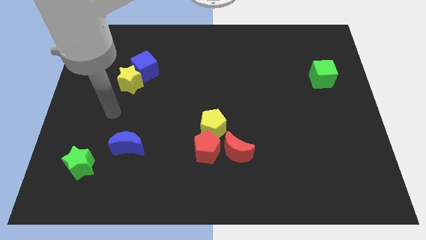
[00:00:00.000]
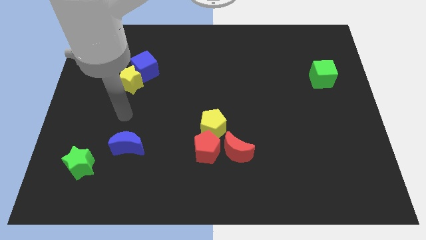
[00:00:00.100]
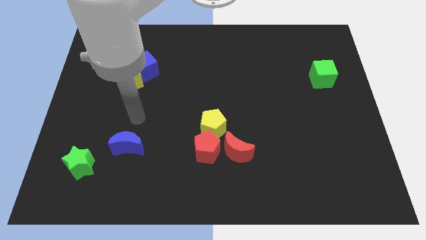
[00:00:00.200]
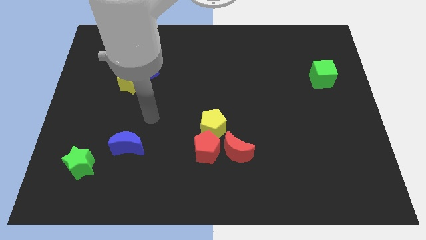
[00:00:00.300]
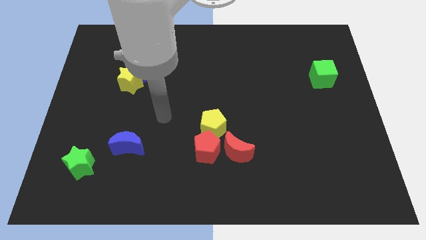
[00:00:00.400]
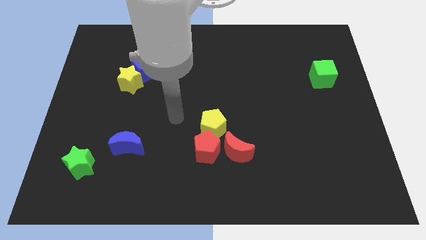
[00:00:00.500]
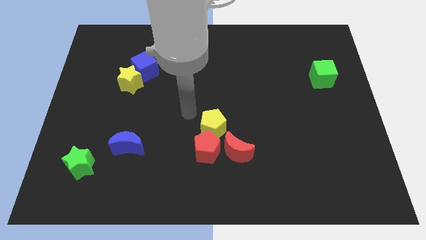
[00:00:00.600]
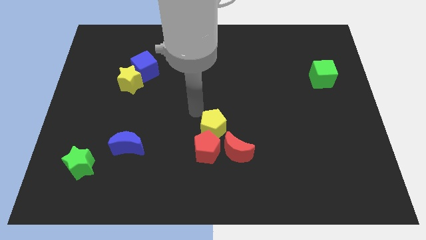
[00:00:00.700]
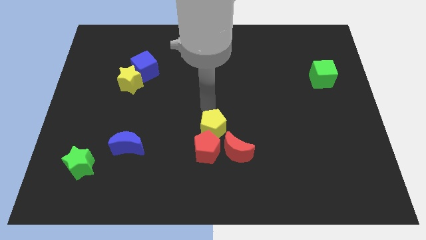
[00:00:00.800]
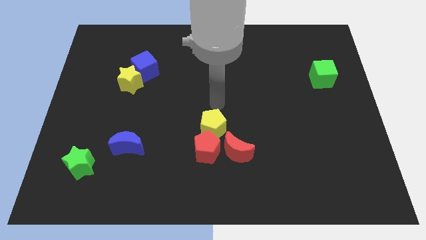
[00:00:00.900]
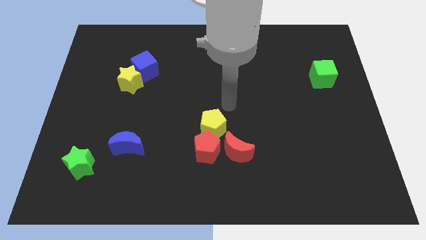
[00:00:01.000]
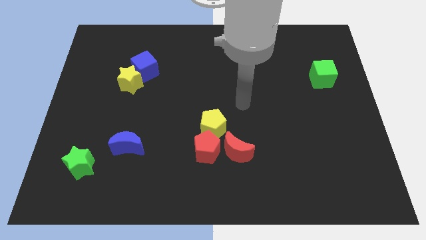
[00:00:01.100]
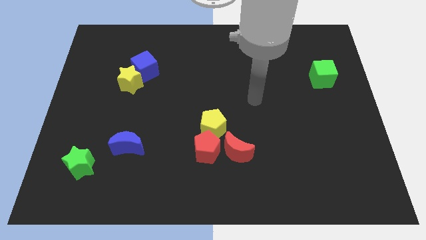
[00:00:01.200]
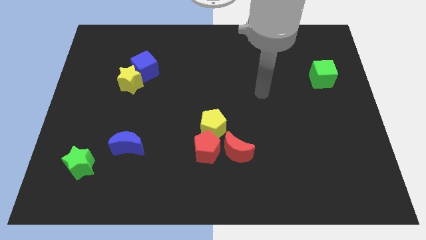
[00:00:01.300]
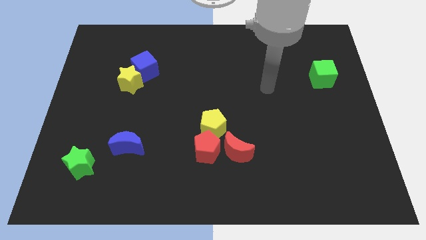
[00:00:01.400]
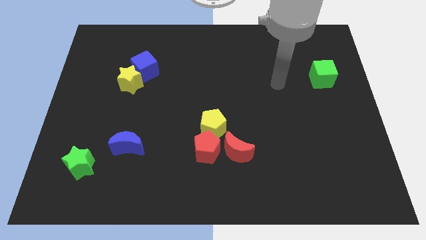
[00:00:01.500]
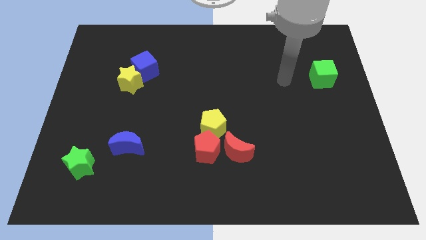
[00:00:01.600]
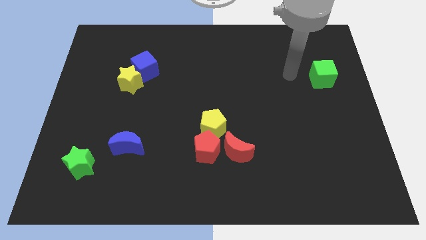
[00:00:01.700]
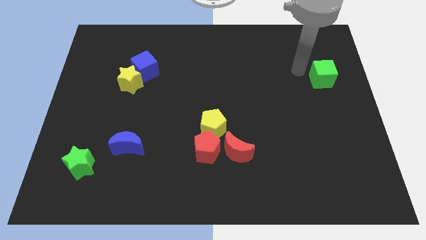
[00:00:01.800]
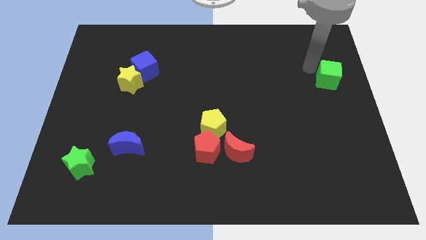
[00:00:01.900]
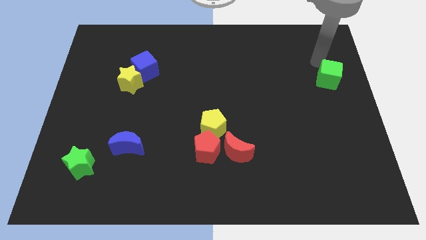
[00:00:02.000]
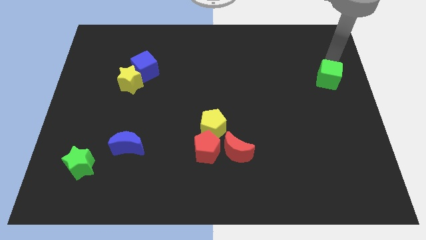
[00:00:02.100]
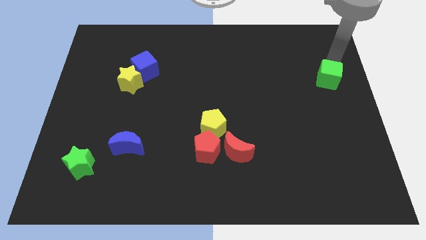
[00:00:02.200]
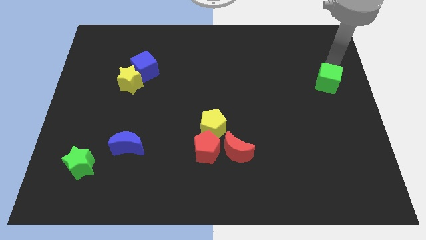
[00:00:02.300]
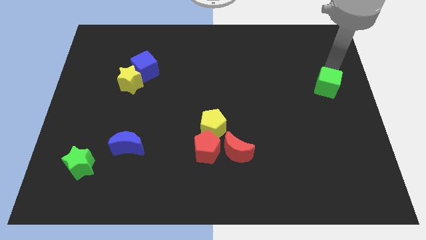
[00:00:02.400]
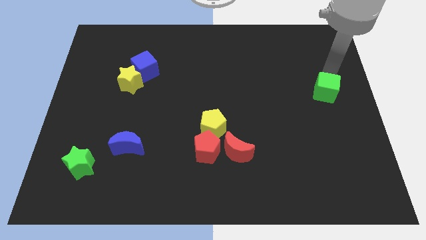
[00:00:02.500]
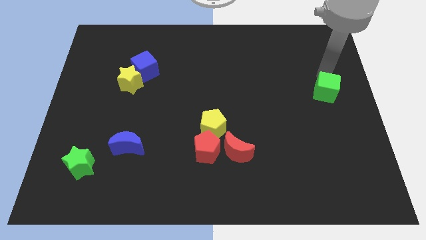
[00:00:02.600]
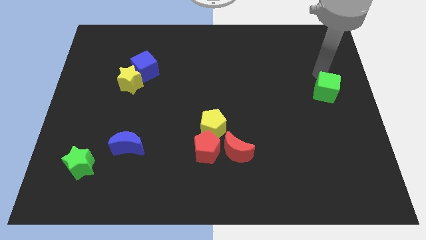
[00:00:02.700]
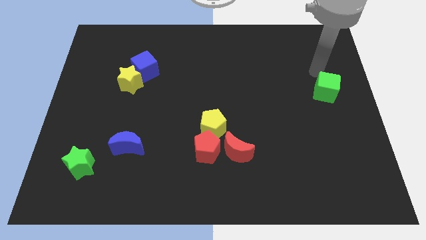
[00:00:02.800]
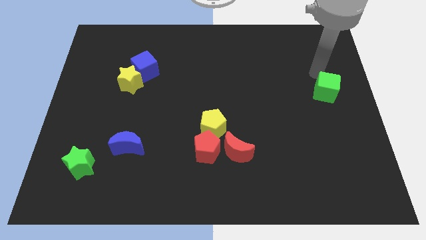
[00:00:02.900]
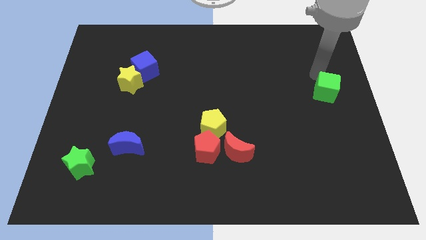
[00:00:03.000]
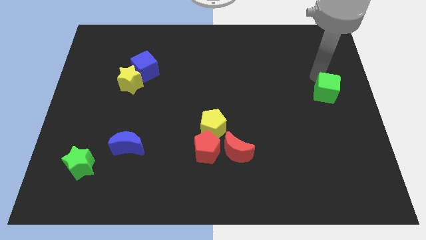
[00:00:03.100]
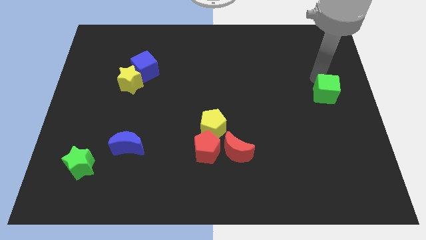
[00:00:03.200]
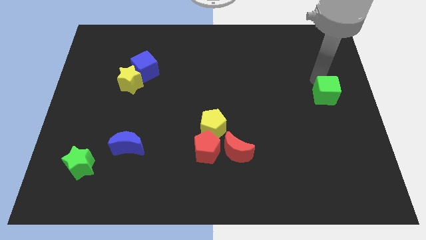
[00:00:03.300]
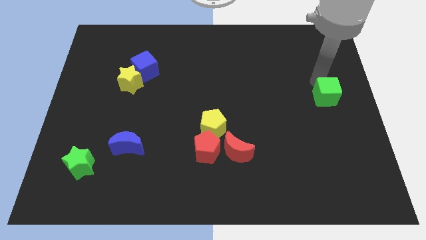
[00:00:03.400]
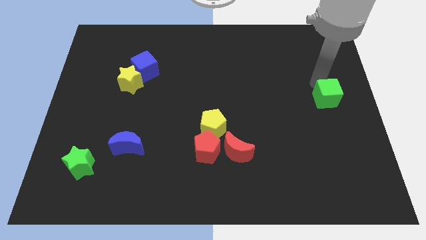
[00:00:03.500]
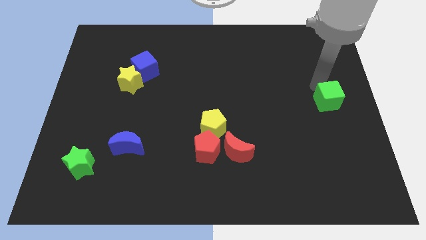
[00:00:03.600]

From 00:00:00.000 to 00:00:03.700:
slightly push the green cube down

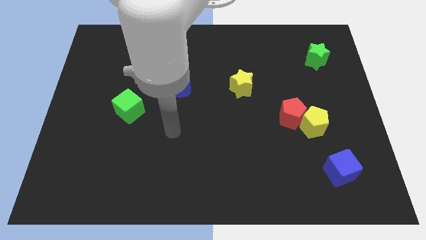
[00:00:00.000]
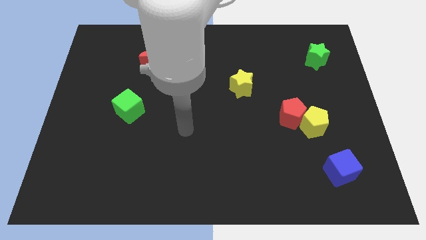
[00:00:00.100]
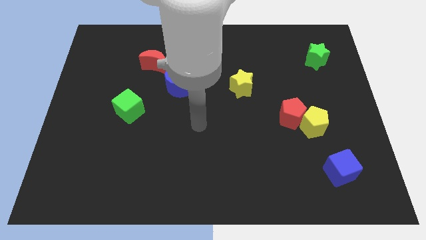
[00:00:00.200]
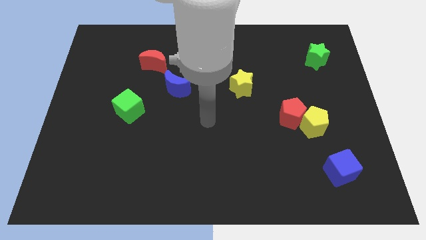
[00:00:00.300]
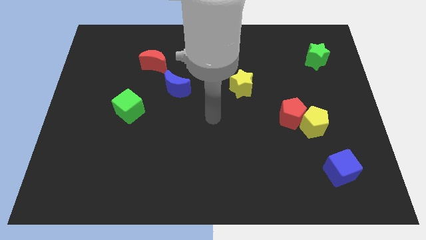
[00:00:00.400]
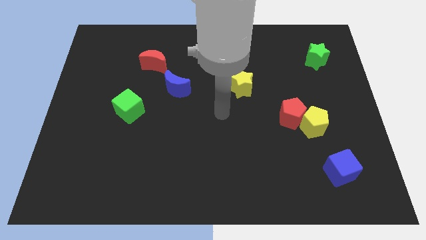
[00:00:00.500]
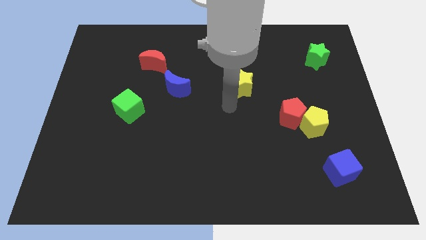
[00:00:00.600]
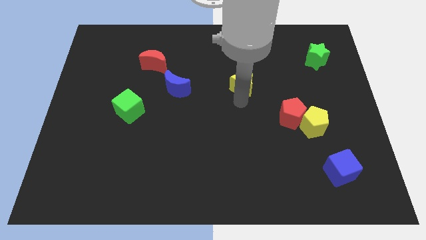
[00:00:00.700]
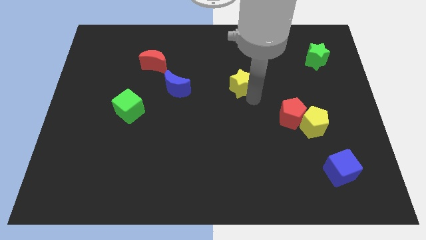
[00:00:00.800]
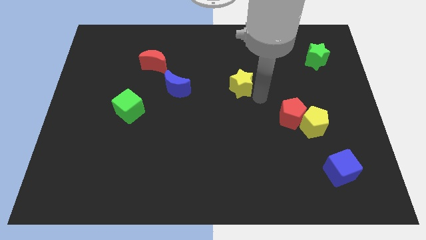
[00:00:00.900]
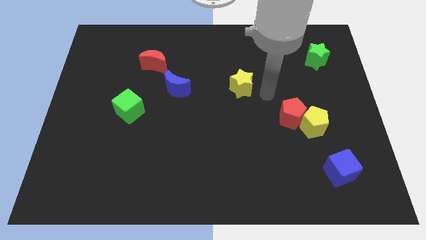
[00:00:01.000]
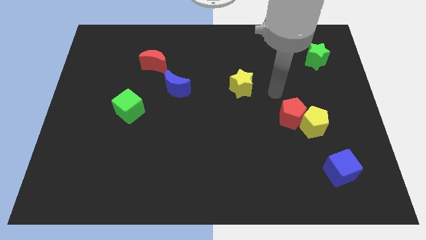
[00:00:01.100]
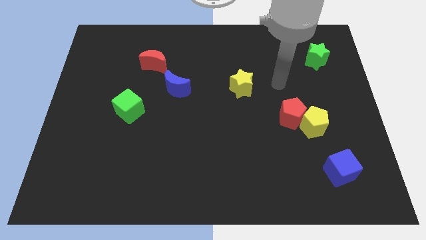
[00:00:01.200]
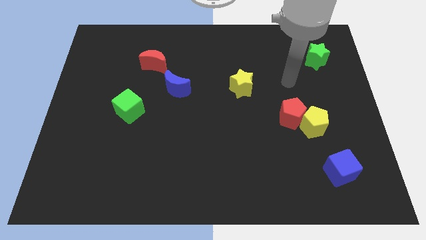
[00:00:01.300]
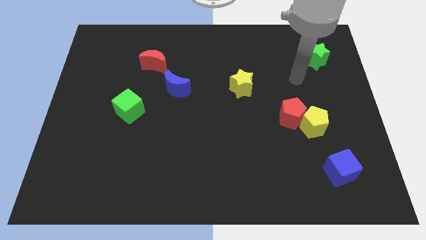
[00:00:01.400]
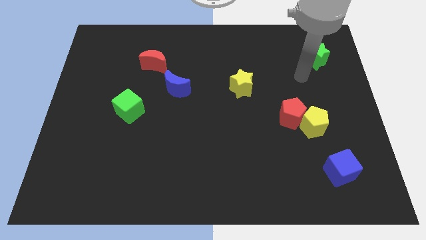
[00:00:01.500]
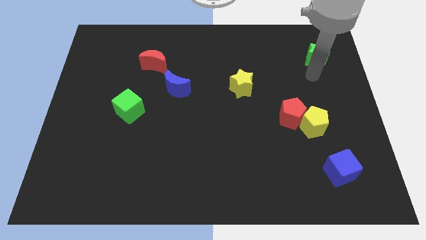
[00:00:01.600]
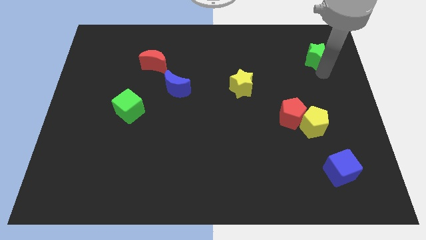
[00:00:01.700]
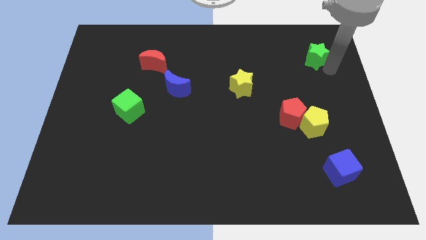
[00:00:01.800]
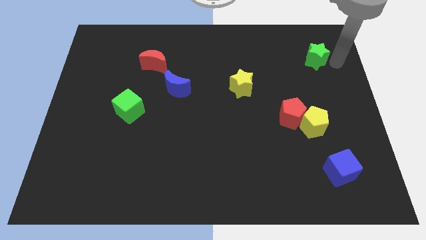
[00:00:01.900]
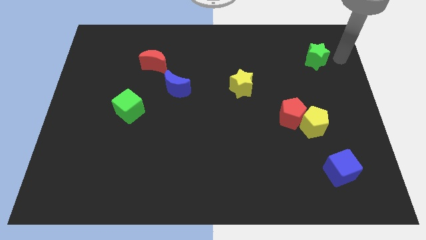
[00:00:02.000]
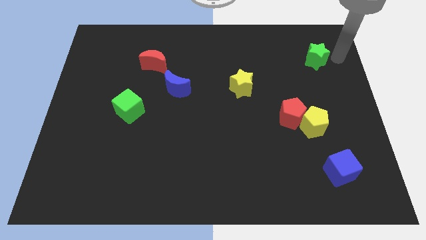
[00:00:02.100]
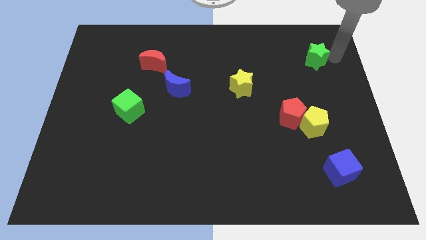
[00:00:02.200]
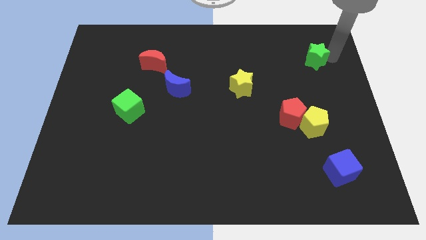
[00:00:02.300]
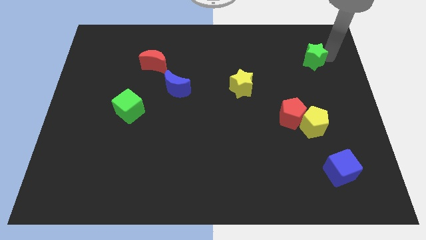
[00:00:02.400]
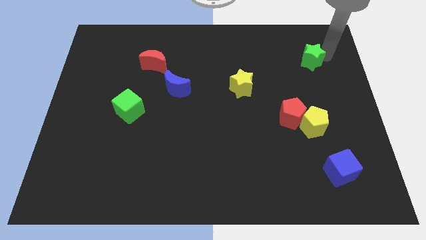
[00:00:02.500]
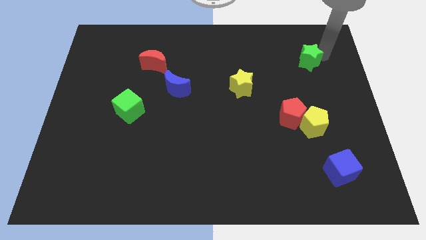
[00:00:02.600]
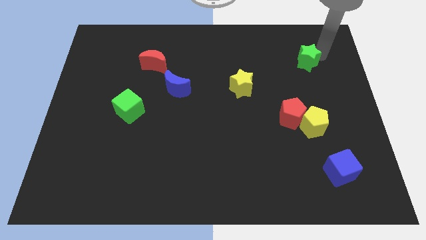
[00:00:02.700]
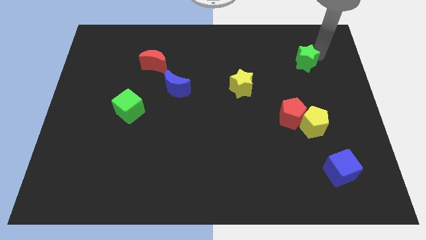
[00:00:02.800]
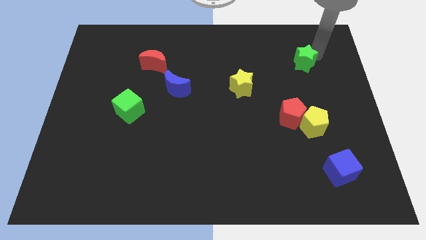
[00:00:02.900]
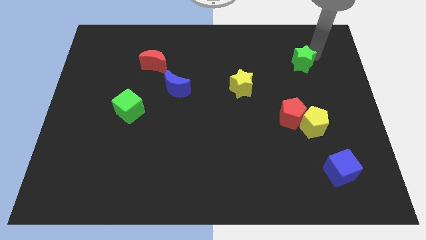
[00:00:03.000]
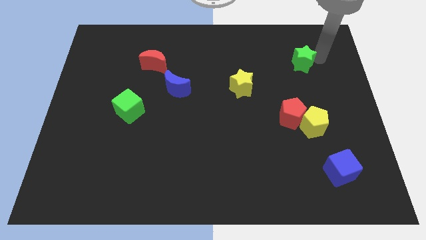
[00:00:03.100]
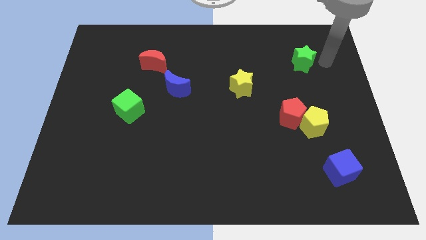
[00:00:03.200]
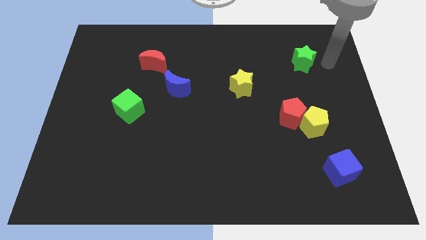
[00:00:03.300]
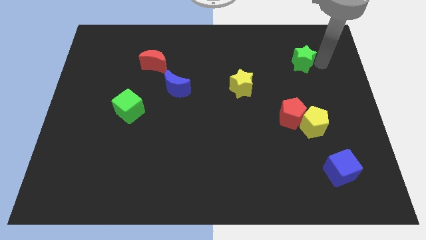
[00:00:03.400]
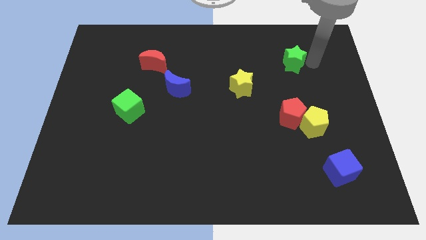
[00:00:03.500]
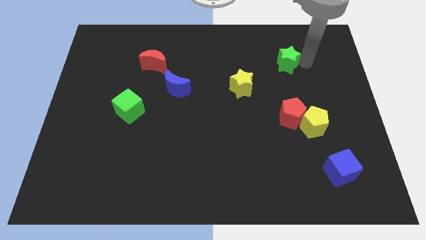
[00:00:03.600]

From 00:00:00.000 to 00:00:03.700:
slide the green star to the left slightly

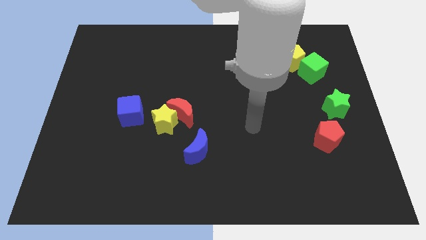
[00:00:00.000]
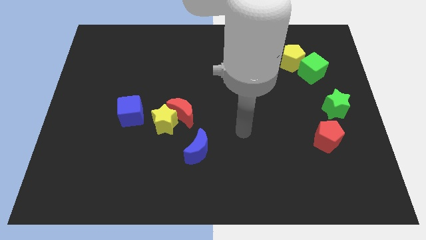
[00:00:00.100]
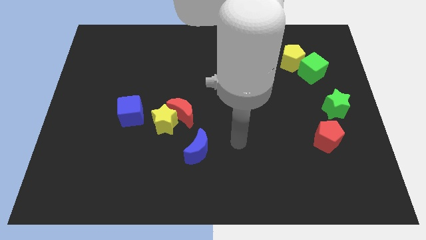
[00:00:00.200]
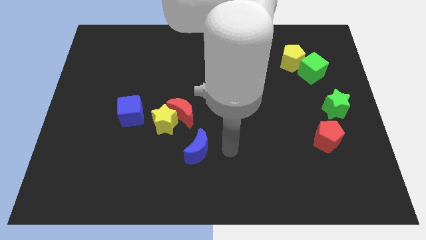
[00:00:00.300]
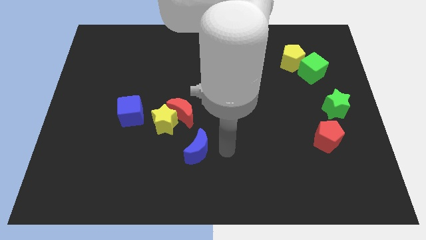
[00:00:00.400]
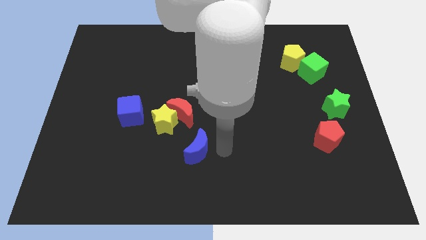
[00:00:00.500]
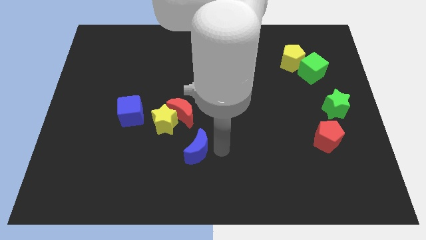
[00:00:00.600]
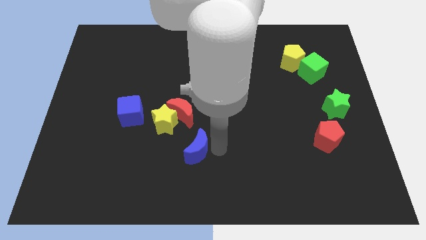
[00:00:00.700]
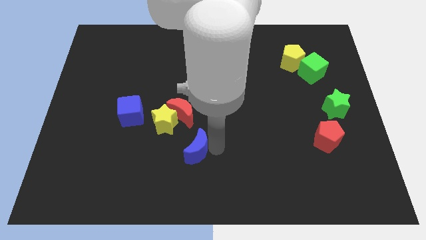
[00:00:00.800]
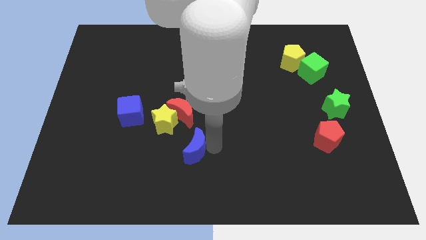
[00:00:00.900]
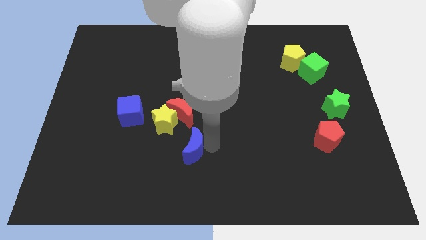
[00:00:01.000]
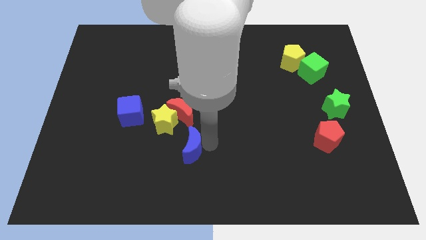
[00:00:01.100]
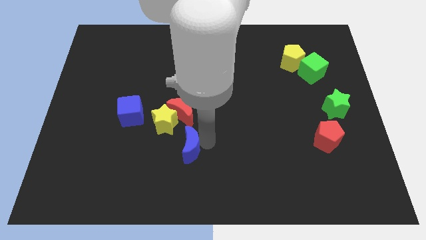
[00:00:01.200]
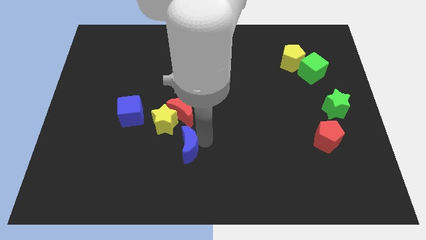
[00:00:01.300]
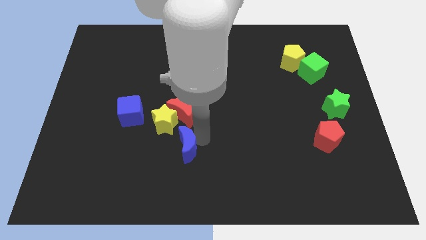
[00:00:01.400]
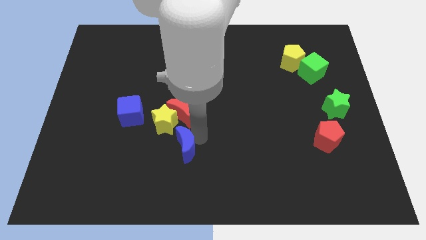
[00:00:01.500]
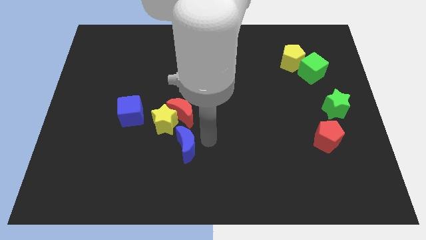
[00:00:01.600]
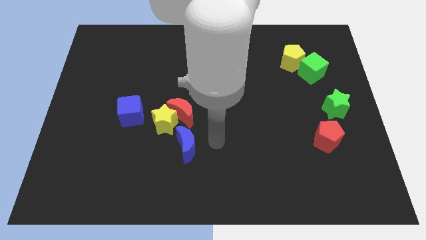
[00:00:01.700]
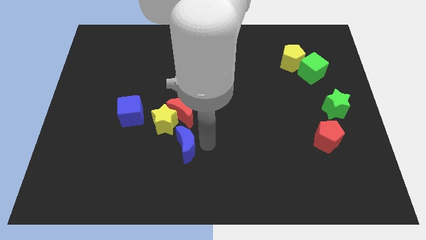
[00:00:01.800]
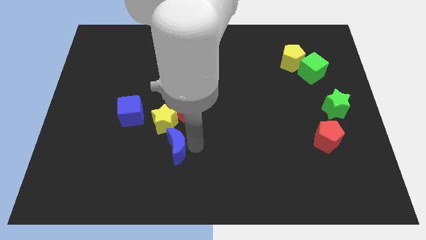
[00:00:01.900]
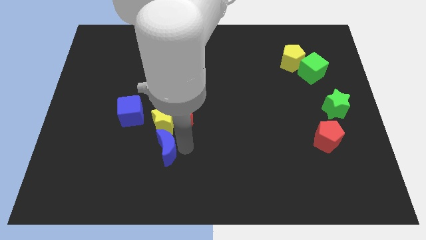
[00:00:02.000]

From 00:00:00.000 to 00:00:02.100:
slide the blue moon a bit to the left
